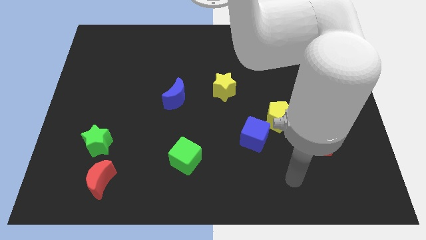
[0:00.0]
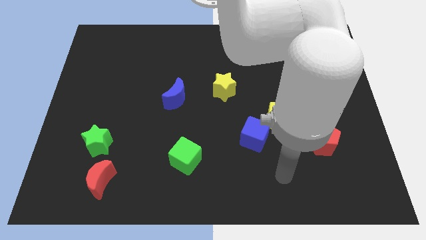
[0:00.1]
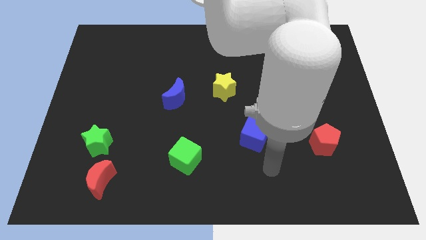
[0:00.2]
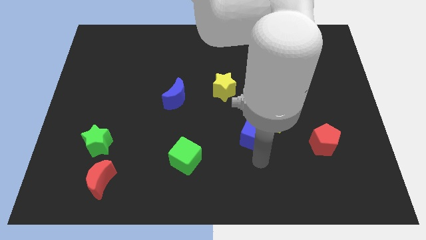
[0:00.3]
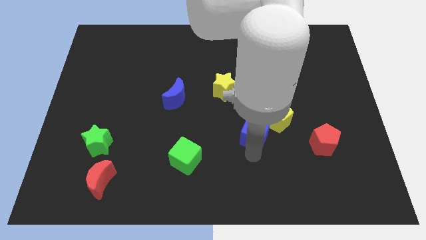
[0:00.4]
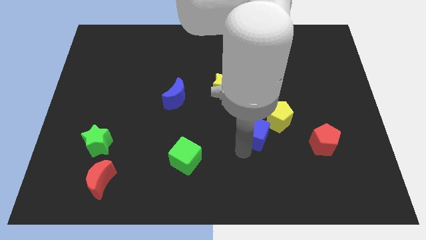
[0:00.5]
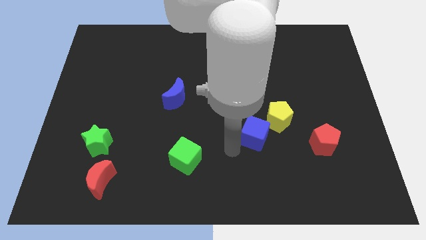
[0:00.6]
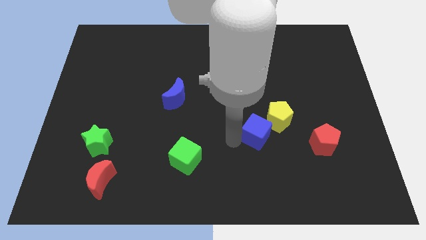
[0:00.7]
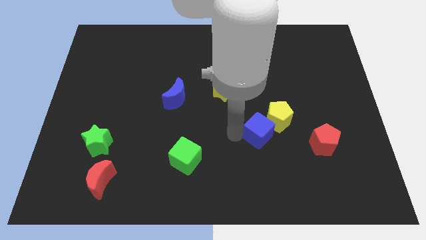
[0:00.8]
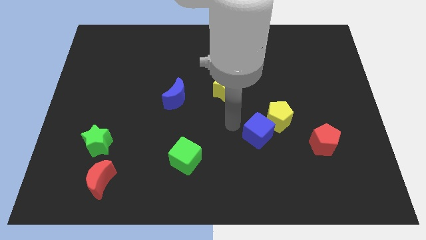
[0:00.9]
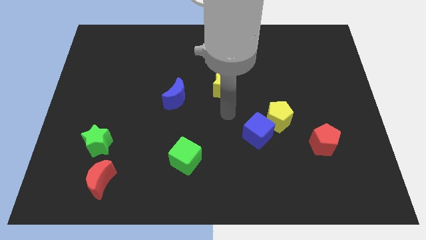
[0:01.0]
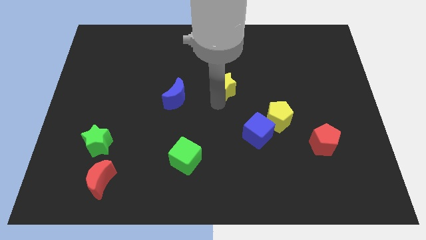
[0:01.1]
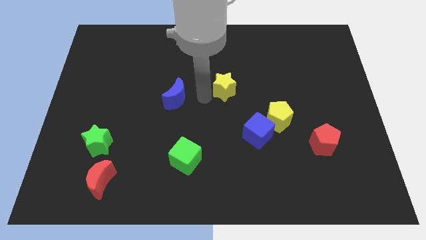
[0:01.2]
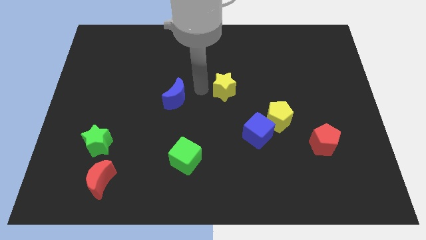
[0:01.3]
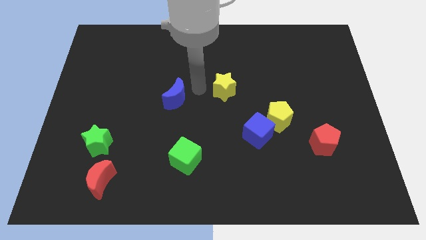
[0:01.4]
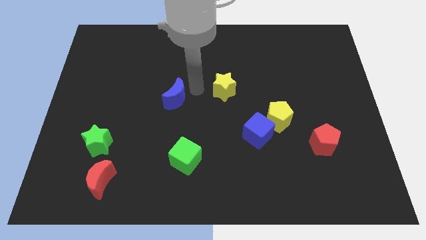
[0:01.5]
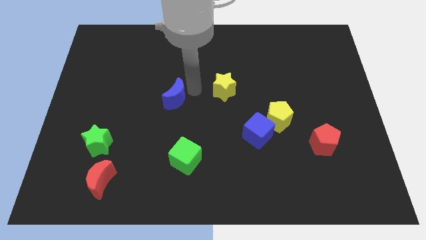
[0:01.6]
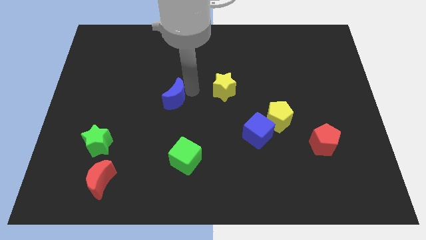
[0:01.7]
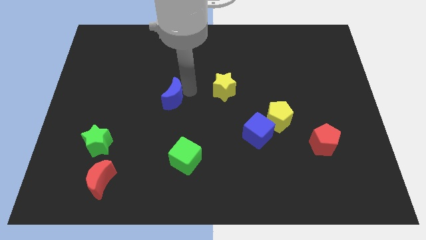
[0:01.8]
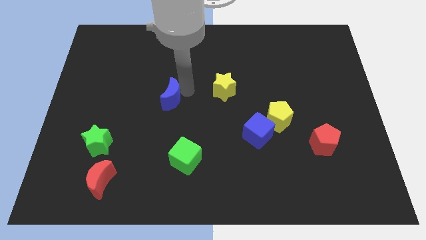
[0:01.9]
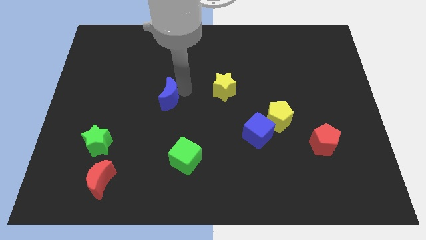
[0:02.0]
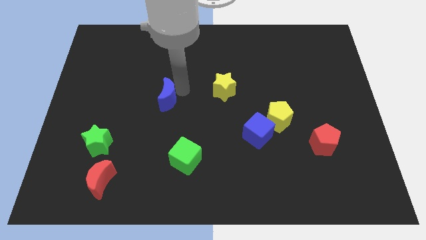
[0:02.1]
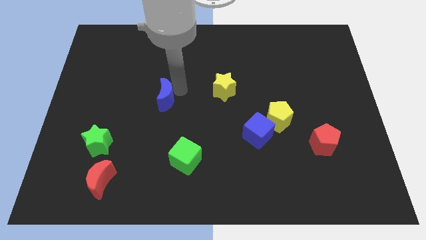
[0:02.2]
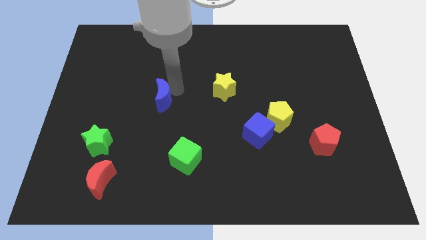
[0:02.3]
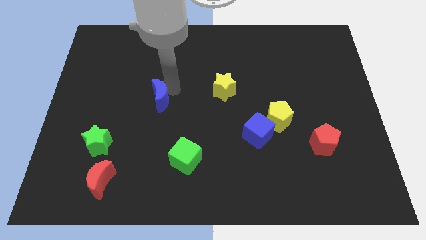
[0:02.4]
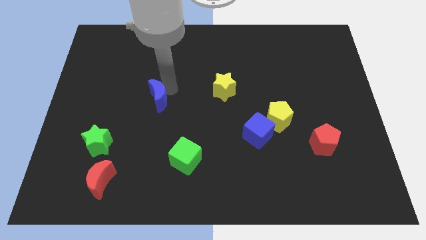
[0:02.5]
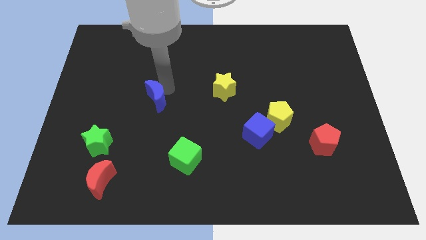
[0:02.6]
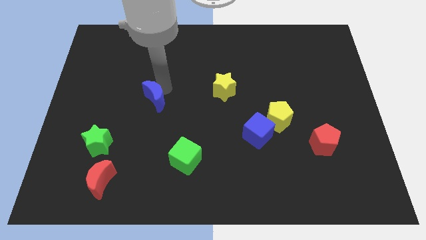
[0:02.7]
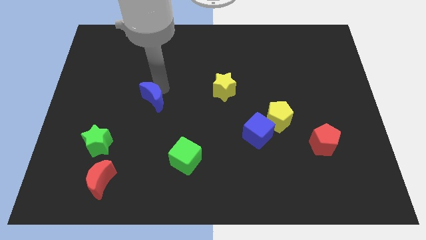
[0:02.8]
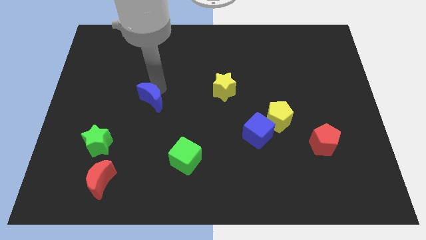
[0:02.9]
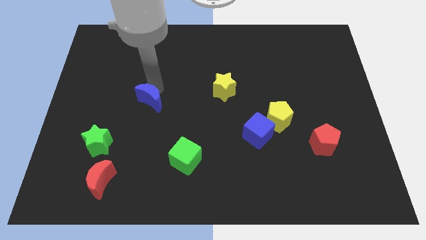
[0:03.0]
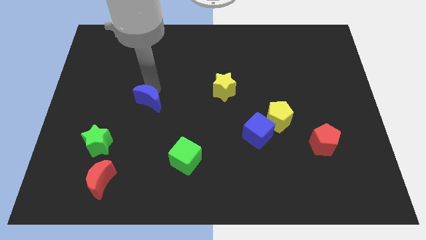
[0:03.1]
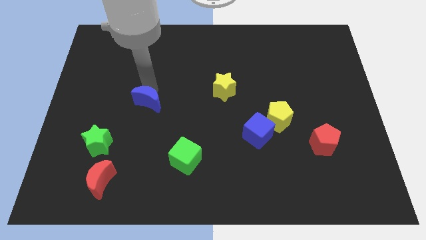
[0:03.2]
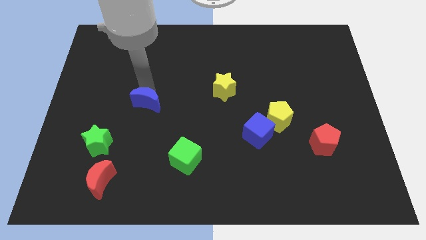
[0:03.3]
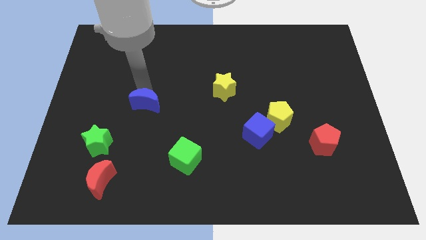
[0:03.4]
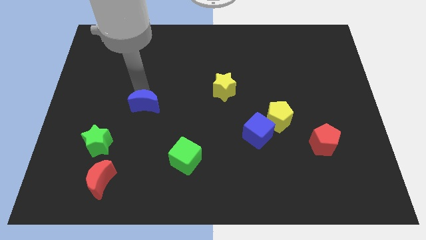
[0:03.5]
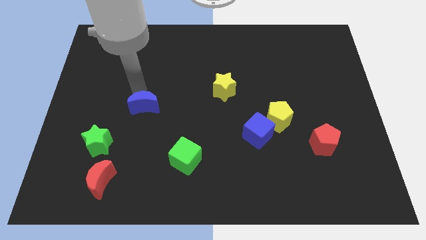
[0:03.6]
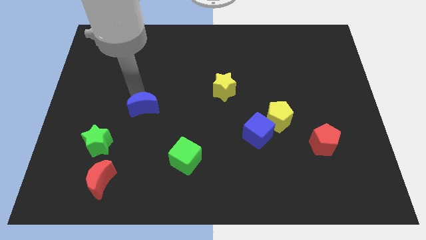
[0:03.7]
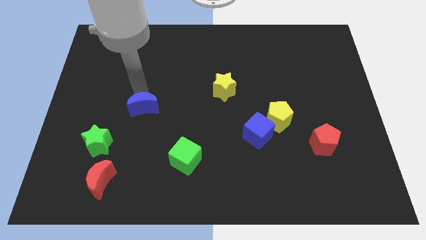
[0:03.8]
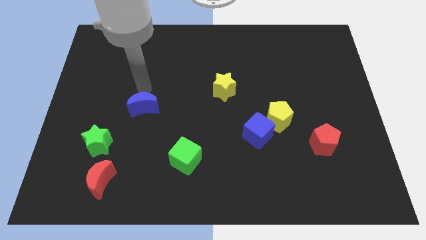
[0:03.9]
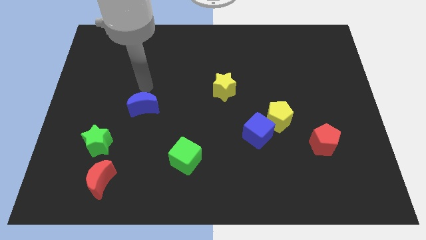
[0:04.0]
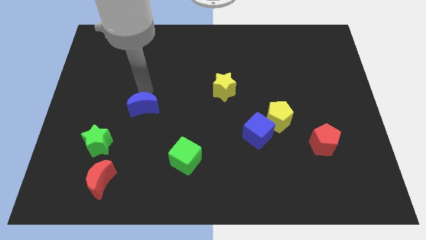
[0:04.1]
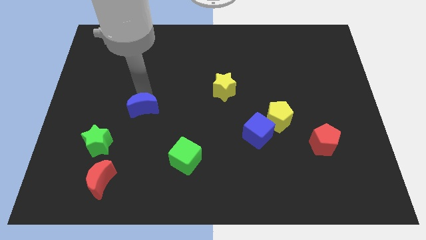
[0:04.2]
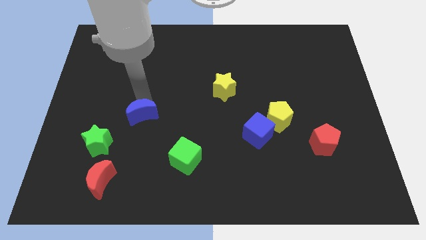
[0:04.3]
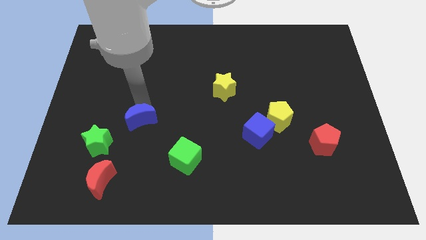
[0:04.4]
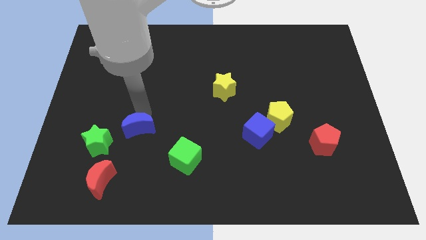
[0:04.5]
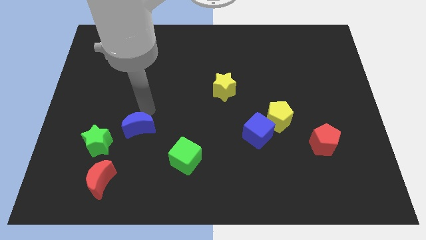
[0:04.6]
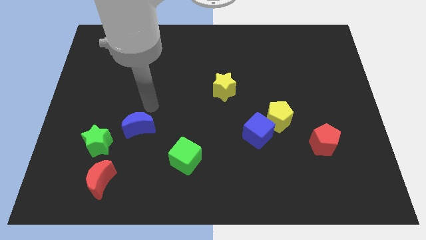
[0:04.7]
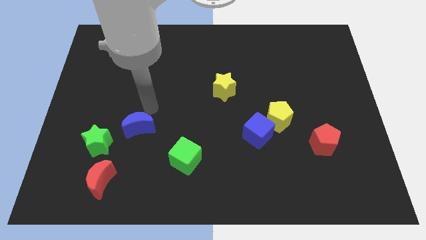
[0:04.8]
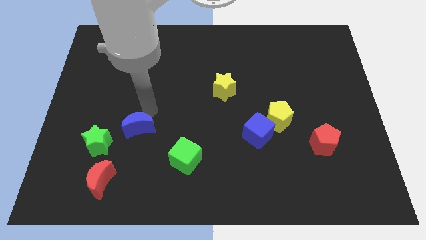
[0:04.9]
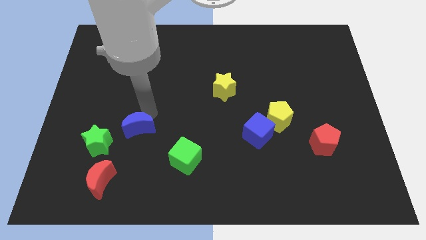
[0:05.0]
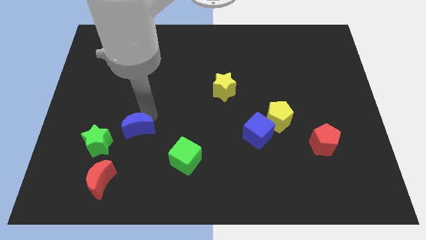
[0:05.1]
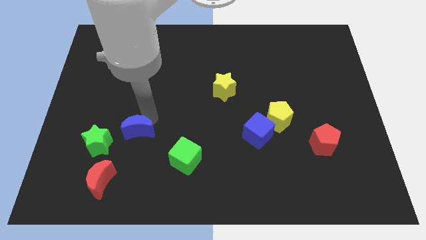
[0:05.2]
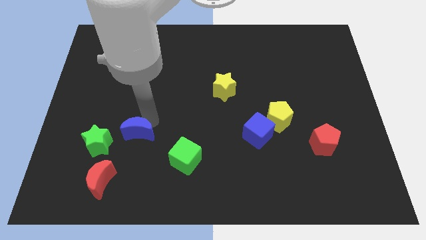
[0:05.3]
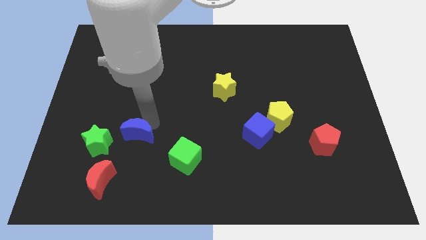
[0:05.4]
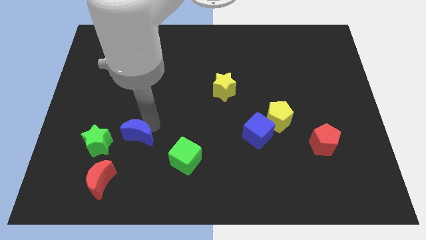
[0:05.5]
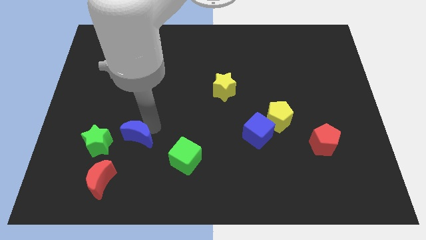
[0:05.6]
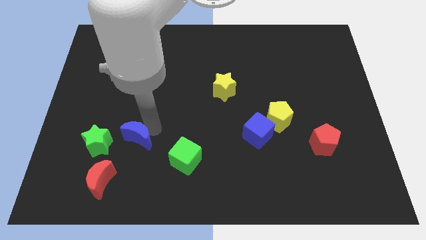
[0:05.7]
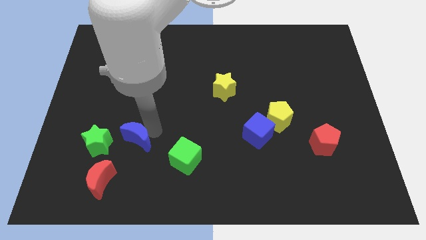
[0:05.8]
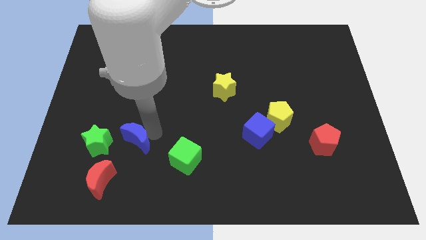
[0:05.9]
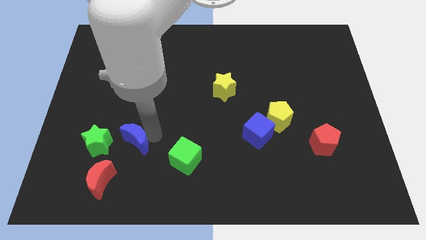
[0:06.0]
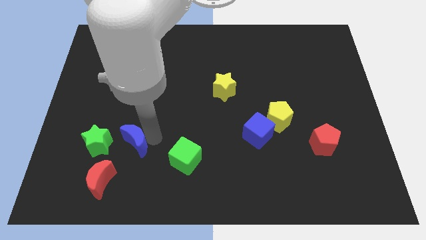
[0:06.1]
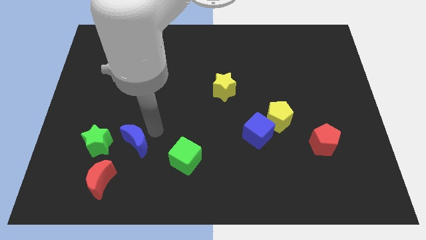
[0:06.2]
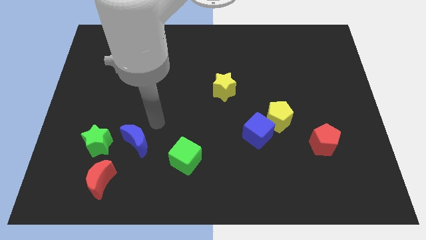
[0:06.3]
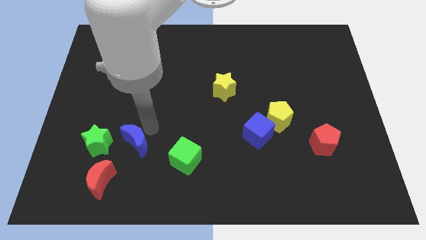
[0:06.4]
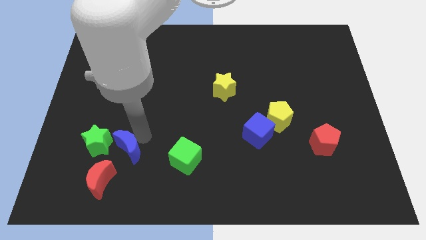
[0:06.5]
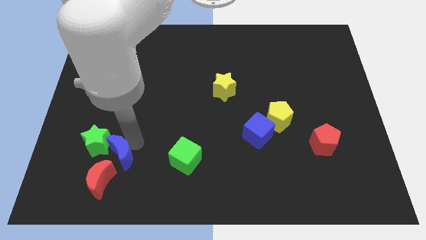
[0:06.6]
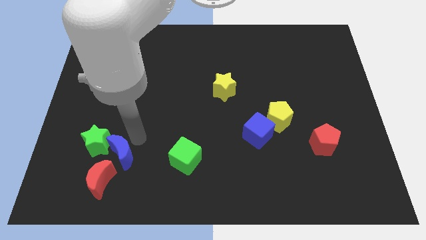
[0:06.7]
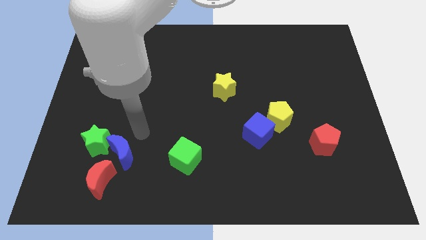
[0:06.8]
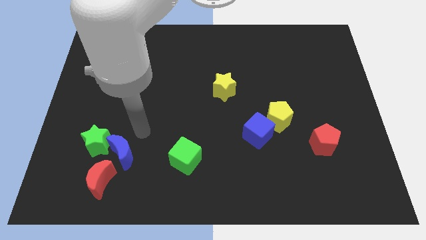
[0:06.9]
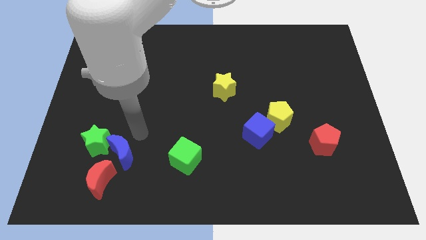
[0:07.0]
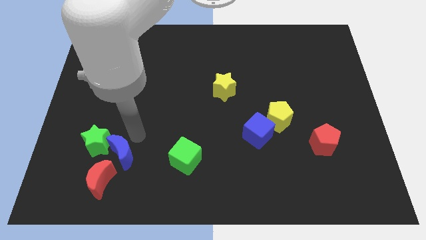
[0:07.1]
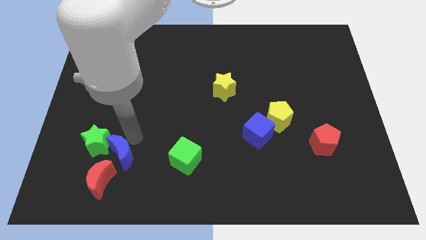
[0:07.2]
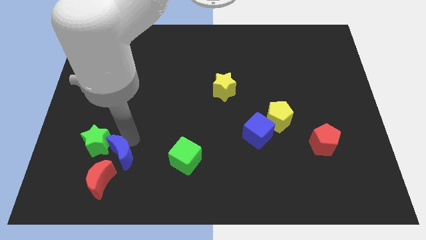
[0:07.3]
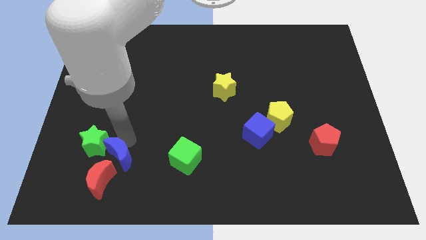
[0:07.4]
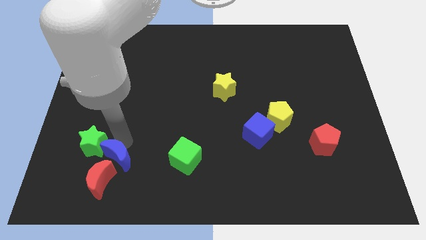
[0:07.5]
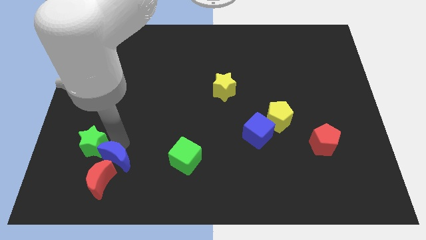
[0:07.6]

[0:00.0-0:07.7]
slide the blue moon next to the red moon
